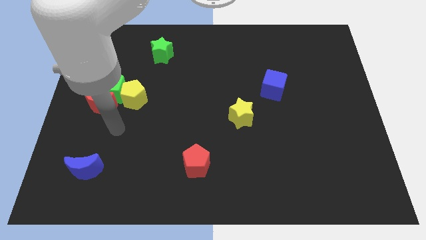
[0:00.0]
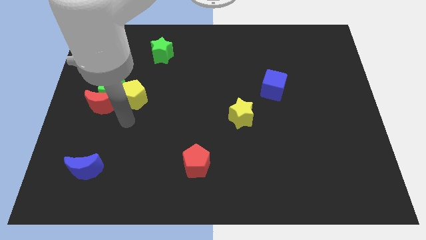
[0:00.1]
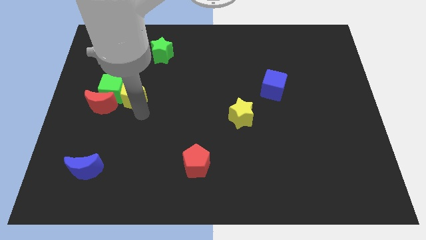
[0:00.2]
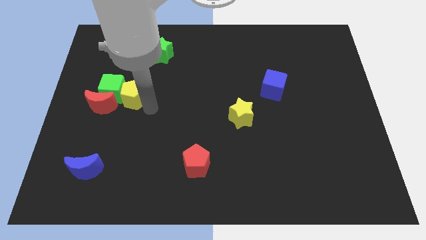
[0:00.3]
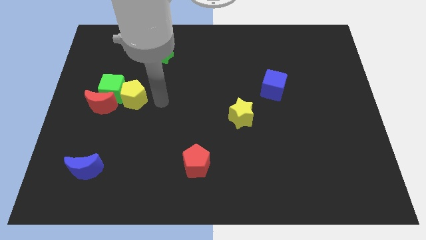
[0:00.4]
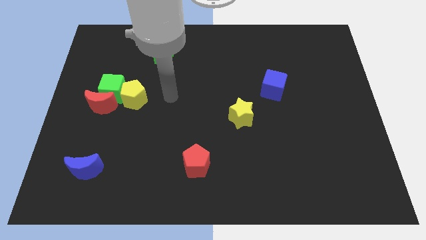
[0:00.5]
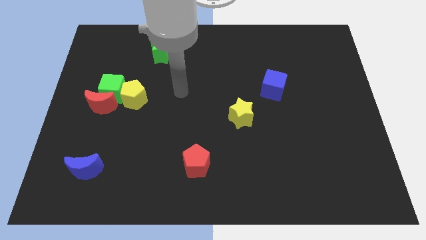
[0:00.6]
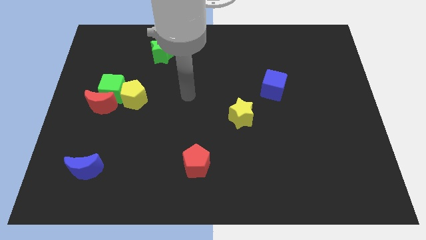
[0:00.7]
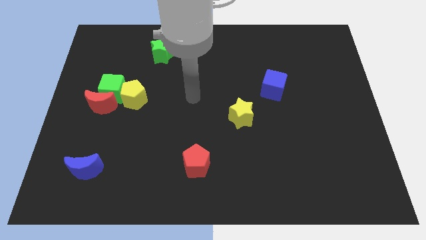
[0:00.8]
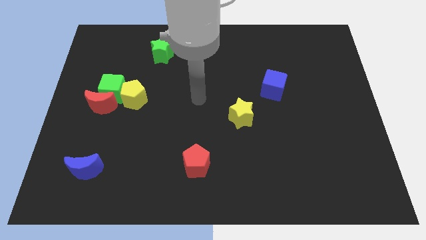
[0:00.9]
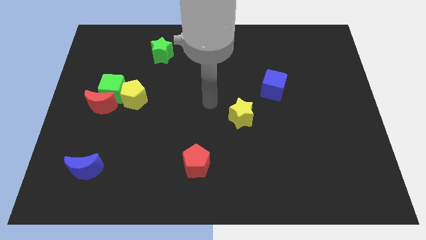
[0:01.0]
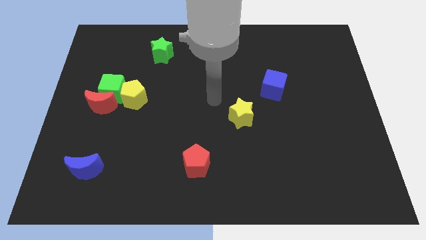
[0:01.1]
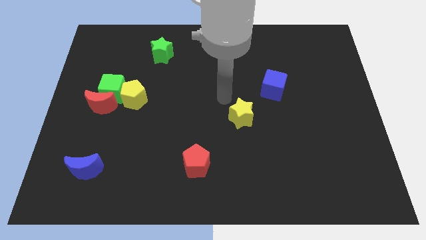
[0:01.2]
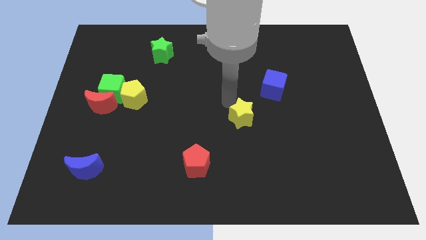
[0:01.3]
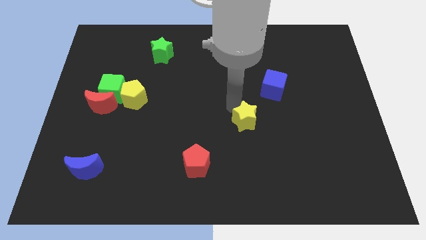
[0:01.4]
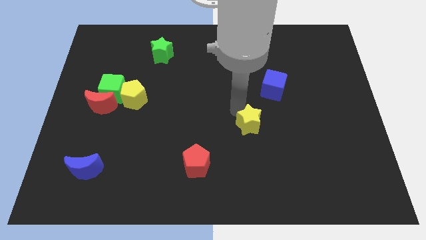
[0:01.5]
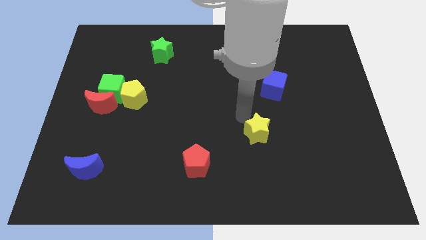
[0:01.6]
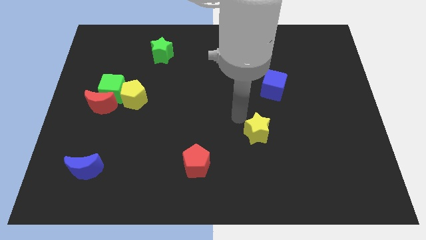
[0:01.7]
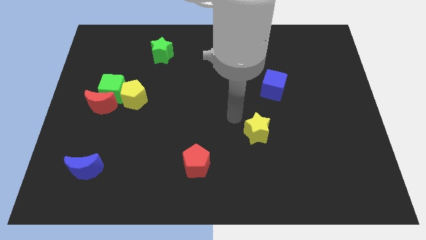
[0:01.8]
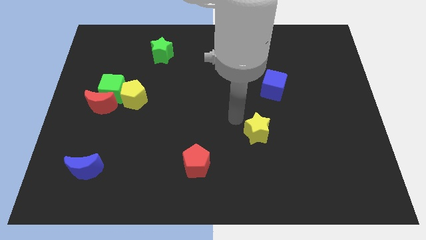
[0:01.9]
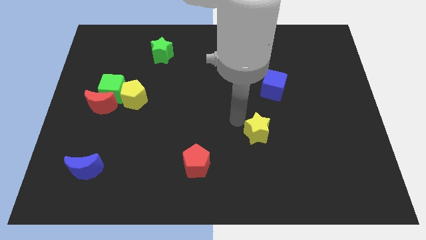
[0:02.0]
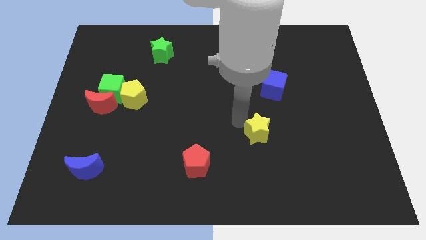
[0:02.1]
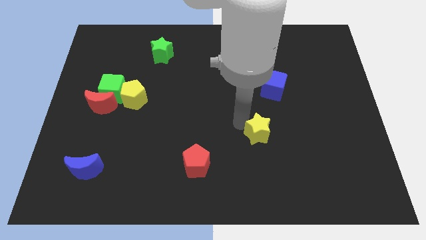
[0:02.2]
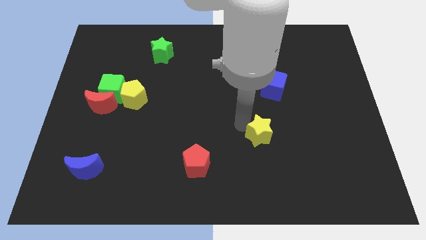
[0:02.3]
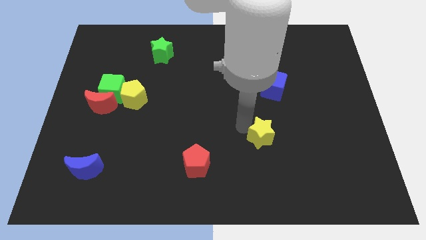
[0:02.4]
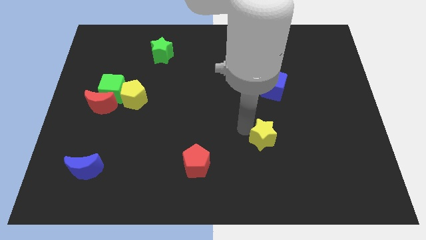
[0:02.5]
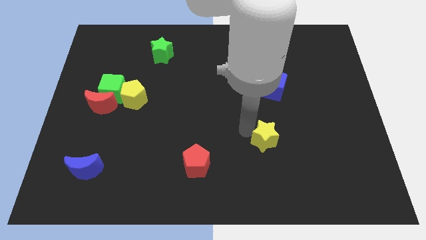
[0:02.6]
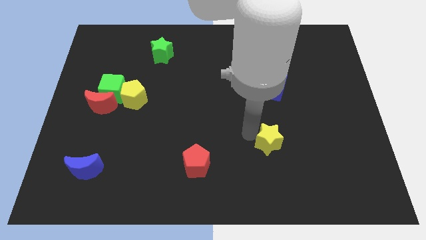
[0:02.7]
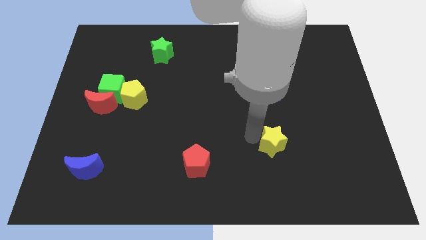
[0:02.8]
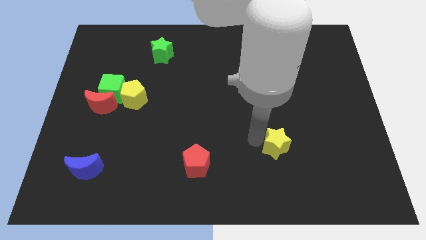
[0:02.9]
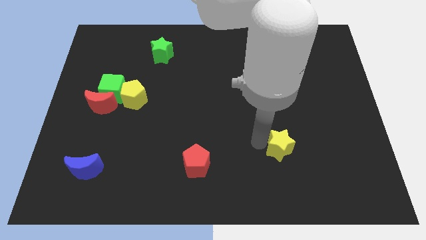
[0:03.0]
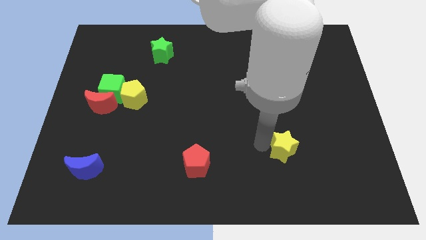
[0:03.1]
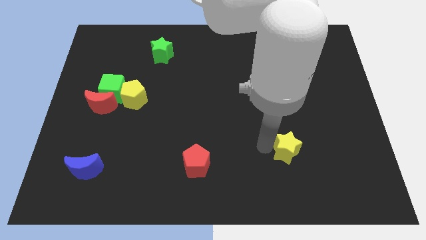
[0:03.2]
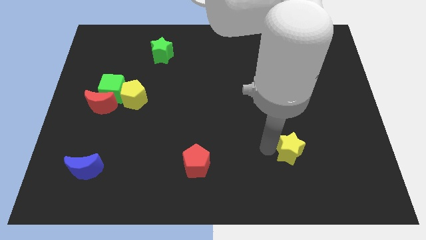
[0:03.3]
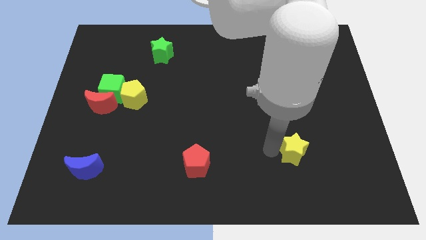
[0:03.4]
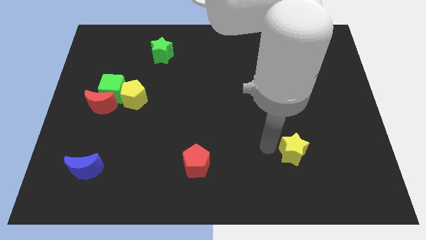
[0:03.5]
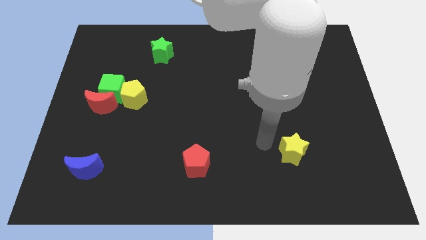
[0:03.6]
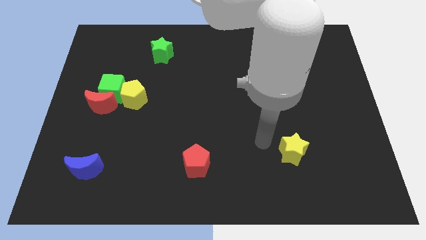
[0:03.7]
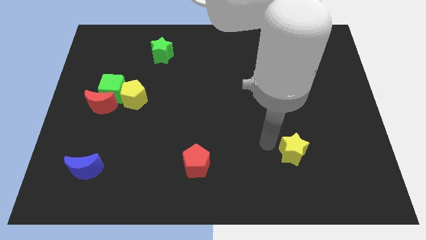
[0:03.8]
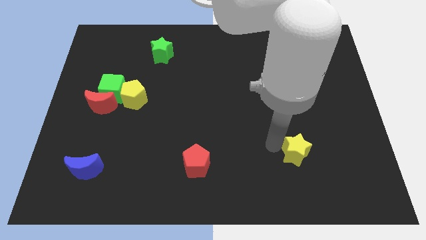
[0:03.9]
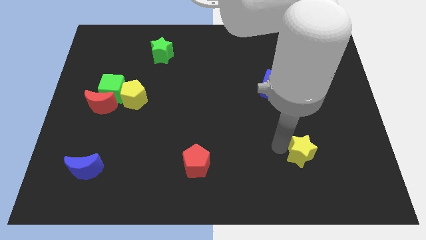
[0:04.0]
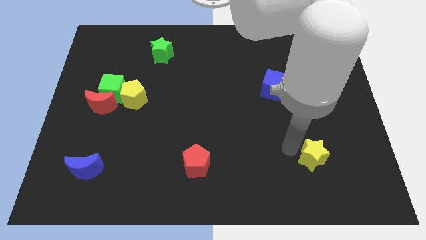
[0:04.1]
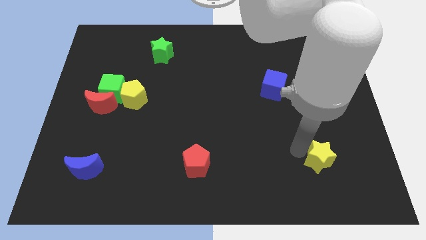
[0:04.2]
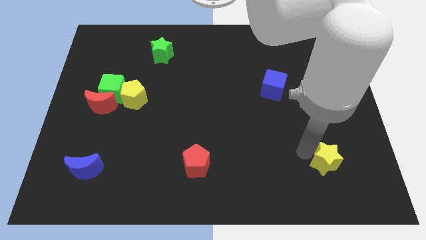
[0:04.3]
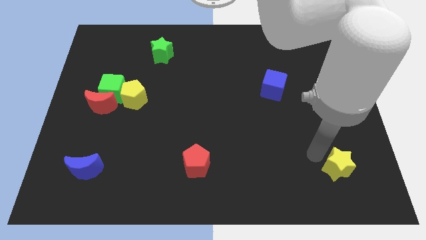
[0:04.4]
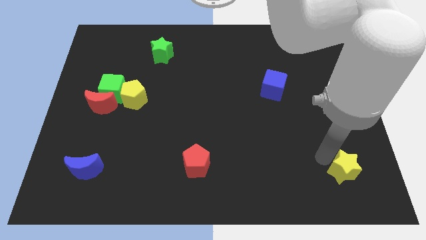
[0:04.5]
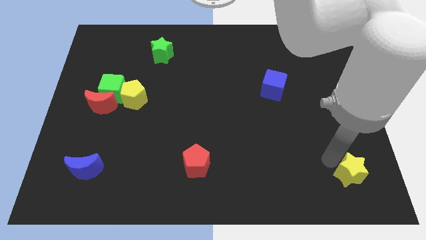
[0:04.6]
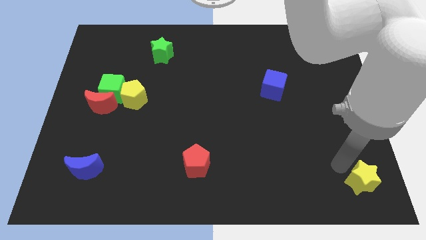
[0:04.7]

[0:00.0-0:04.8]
slide the yellow star to the lower right corner

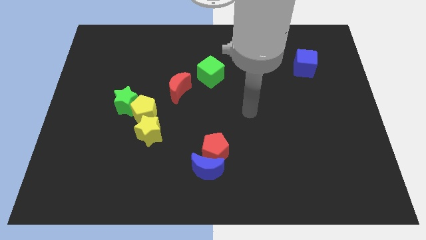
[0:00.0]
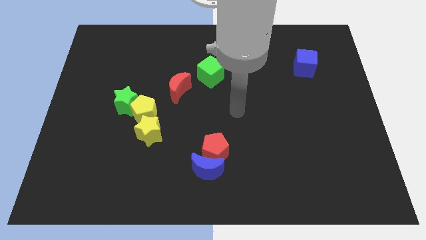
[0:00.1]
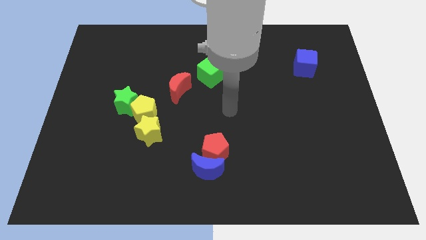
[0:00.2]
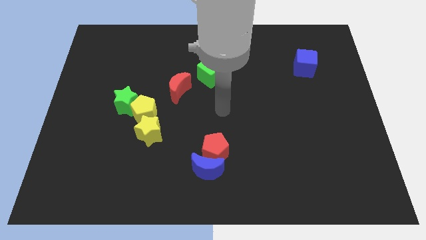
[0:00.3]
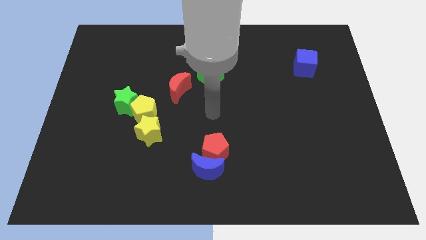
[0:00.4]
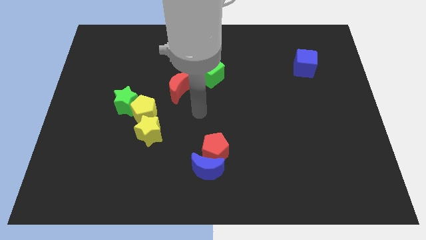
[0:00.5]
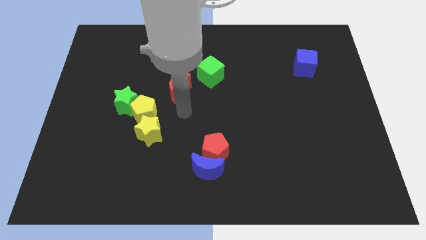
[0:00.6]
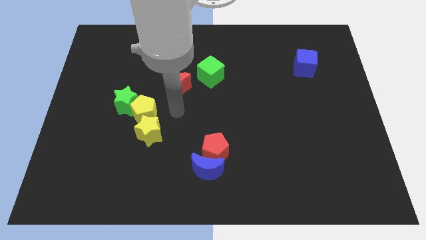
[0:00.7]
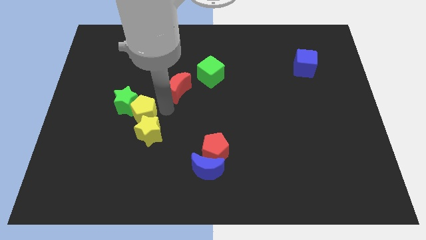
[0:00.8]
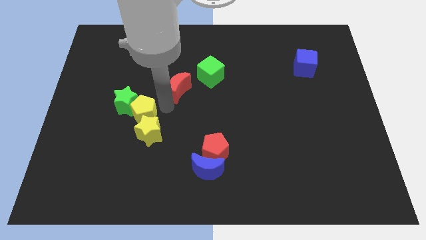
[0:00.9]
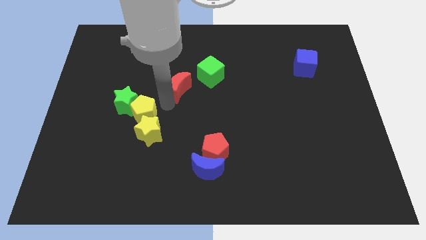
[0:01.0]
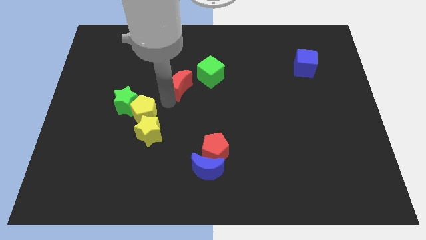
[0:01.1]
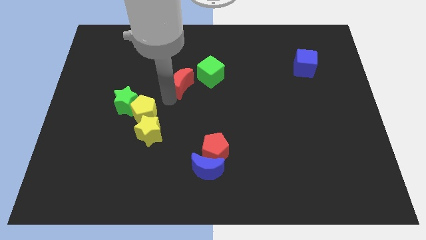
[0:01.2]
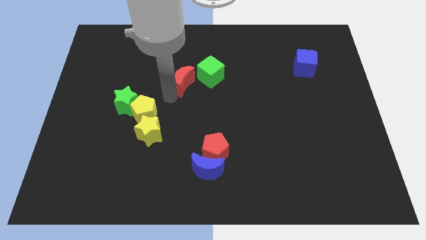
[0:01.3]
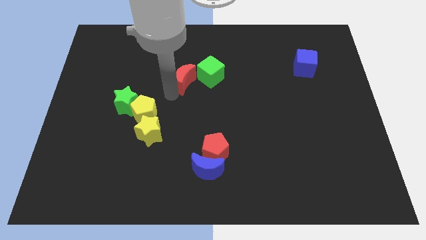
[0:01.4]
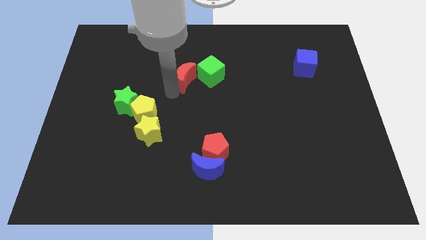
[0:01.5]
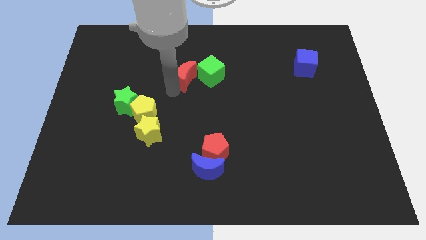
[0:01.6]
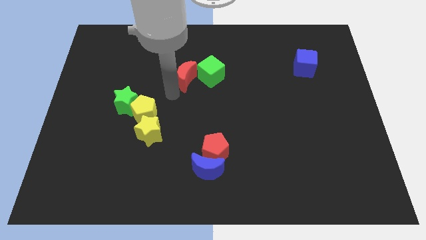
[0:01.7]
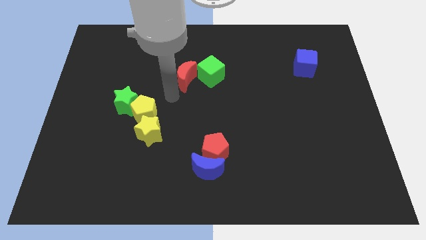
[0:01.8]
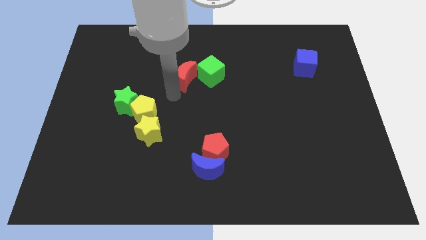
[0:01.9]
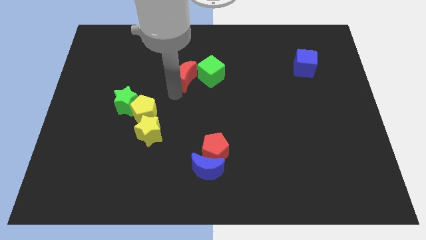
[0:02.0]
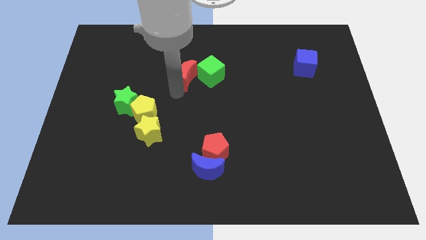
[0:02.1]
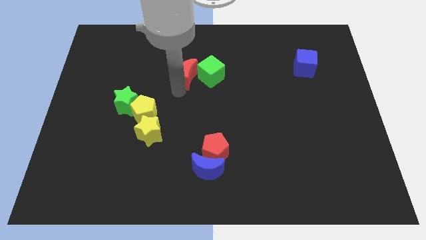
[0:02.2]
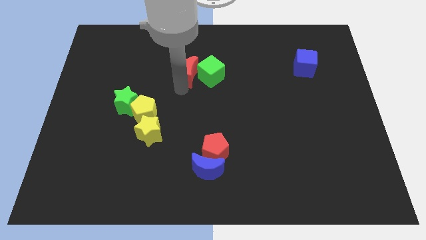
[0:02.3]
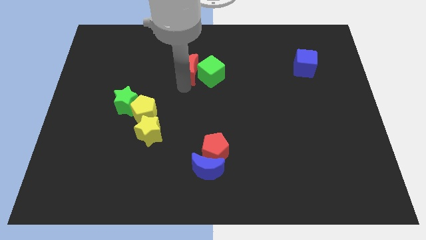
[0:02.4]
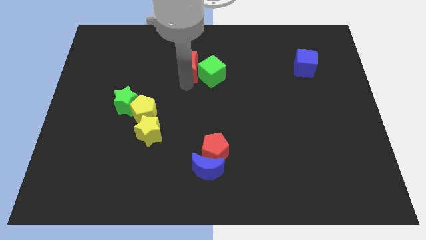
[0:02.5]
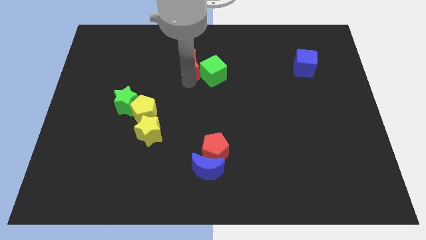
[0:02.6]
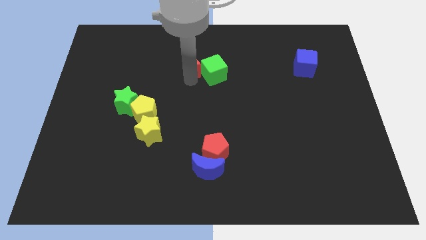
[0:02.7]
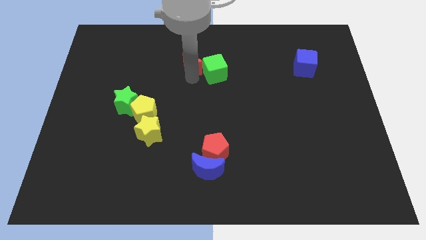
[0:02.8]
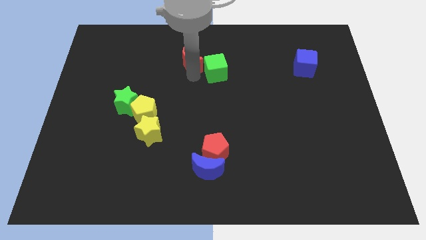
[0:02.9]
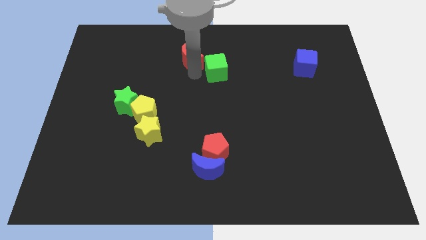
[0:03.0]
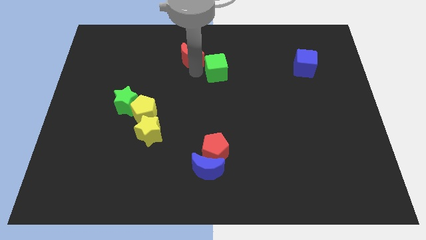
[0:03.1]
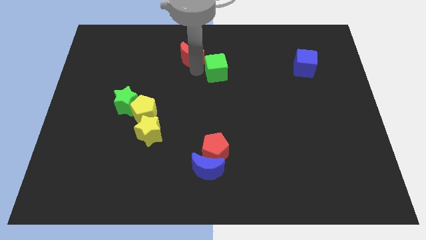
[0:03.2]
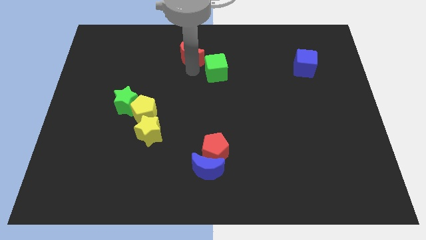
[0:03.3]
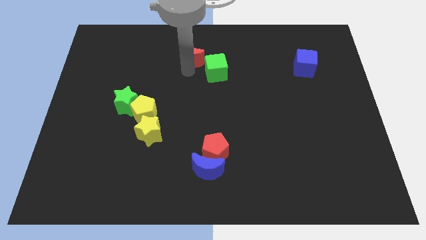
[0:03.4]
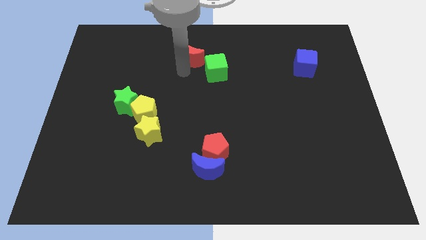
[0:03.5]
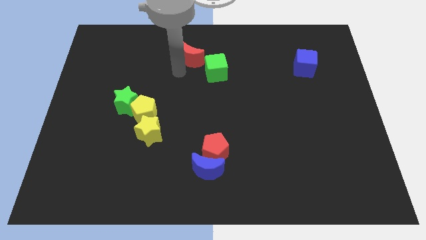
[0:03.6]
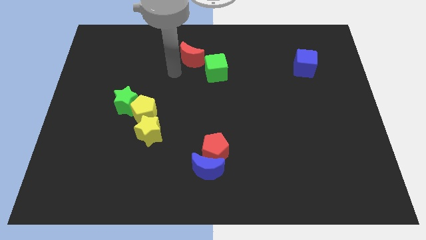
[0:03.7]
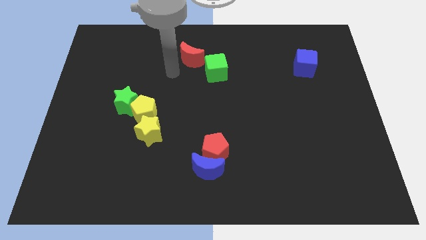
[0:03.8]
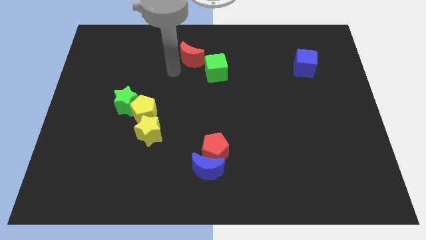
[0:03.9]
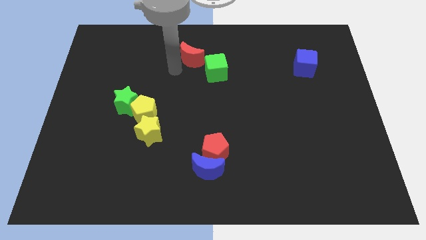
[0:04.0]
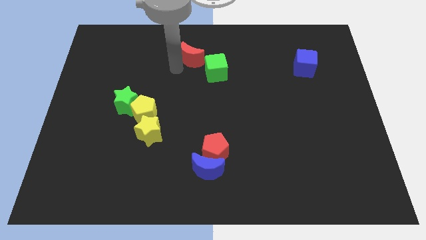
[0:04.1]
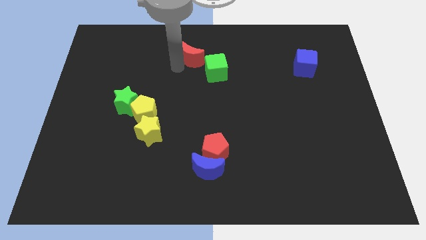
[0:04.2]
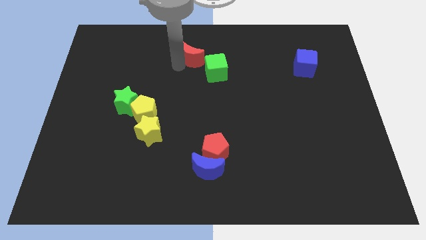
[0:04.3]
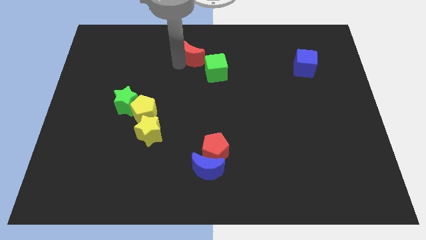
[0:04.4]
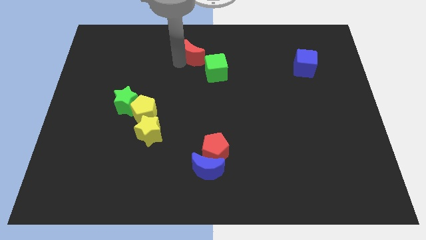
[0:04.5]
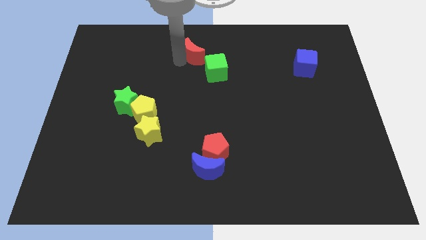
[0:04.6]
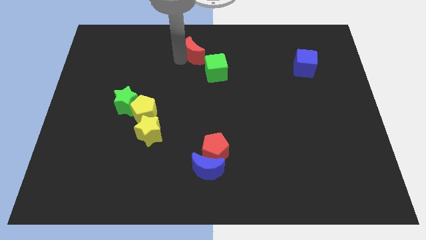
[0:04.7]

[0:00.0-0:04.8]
push the red moon to the top
